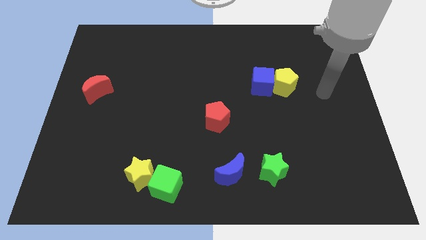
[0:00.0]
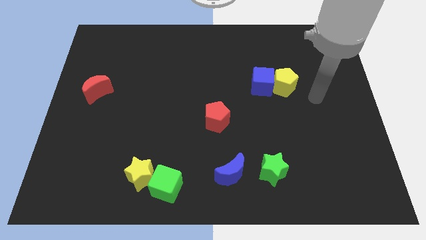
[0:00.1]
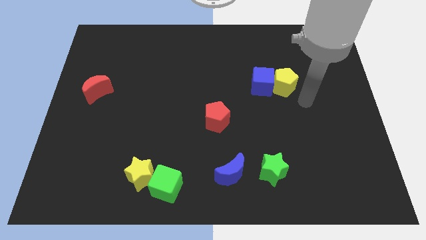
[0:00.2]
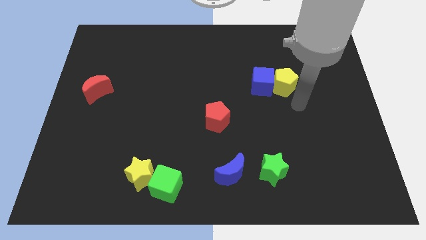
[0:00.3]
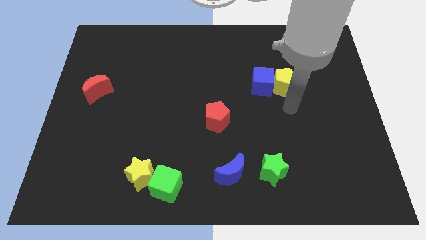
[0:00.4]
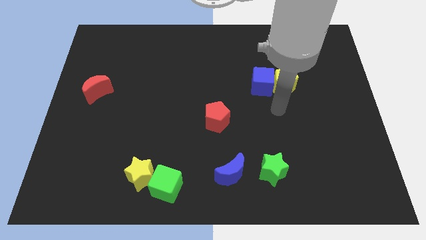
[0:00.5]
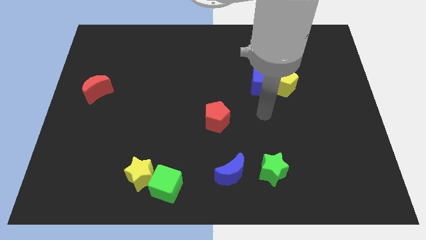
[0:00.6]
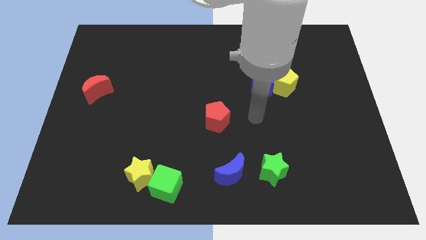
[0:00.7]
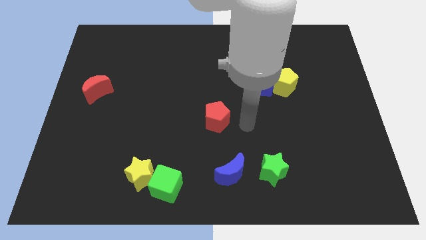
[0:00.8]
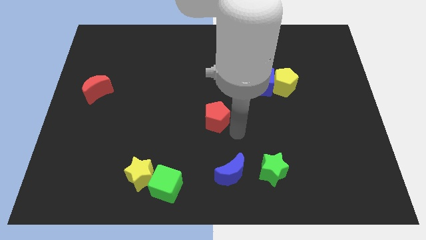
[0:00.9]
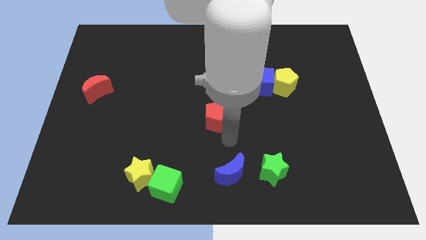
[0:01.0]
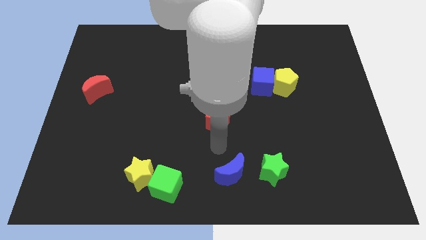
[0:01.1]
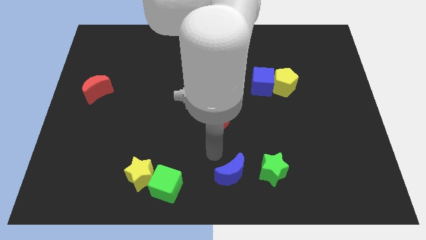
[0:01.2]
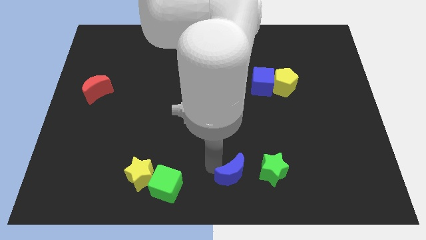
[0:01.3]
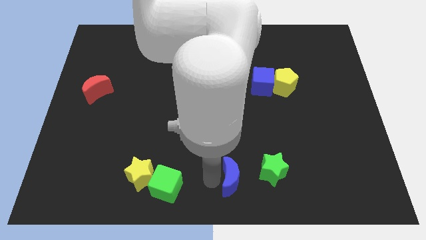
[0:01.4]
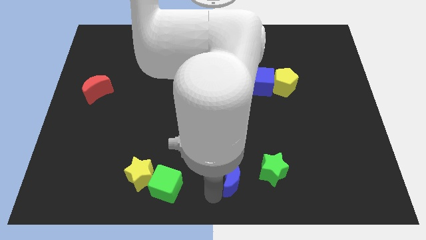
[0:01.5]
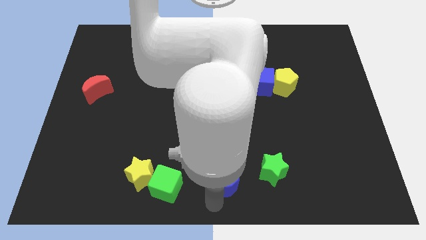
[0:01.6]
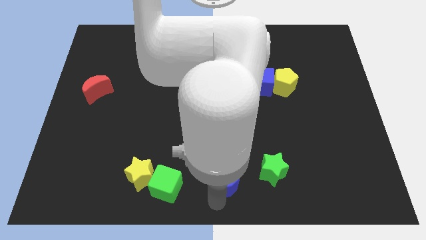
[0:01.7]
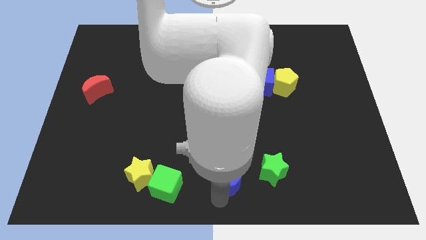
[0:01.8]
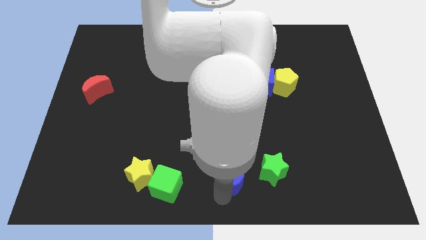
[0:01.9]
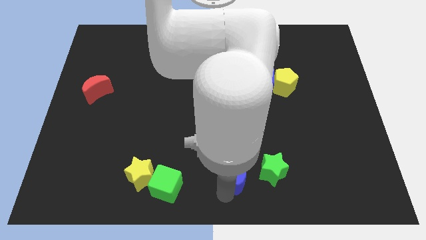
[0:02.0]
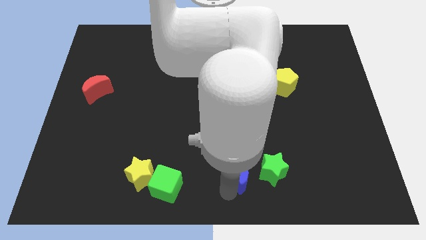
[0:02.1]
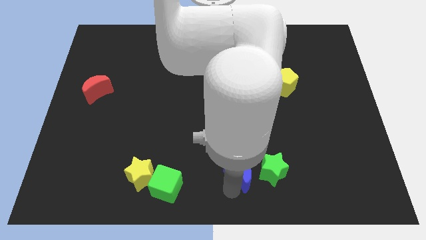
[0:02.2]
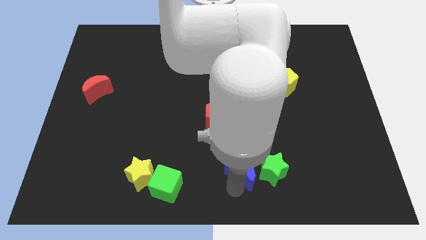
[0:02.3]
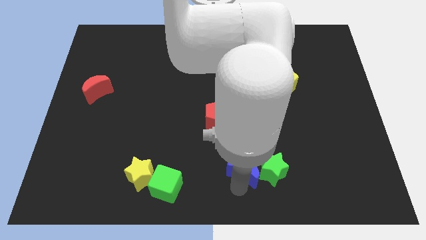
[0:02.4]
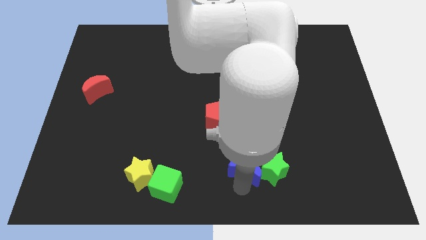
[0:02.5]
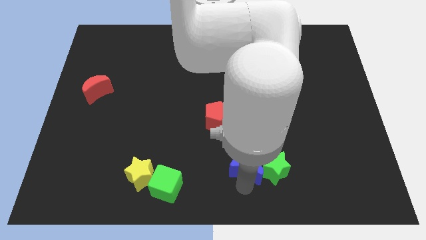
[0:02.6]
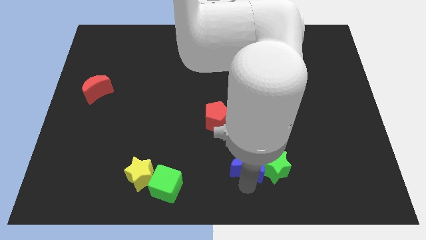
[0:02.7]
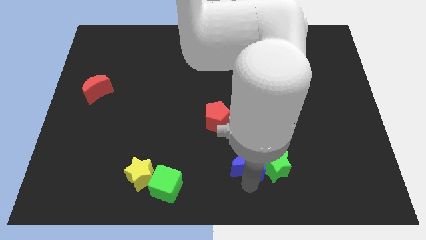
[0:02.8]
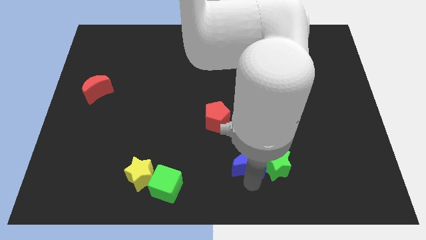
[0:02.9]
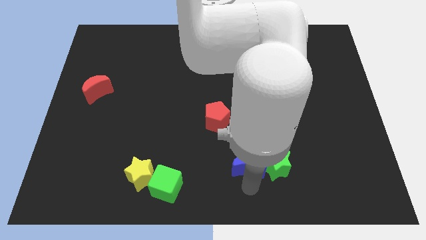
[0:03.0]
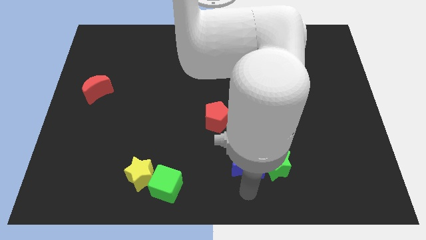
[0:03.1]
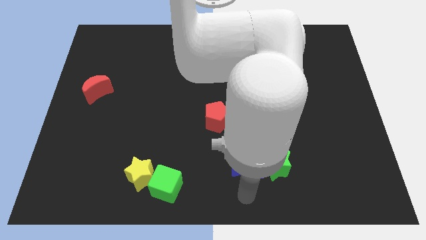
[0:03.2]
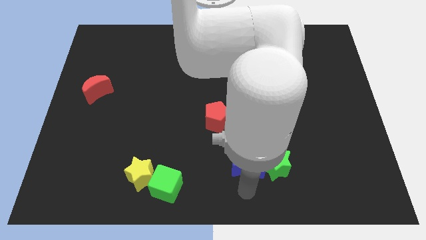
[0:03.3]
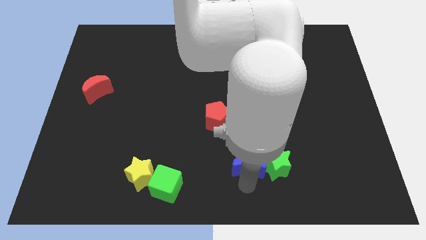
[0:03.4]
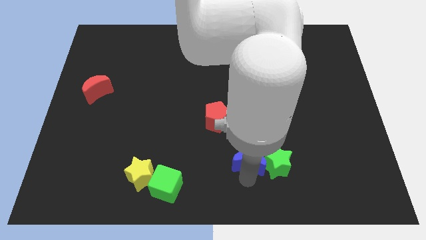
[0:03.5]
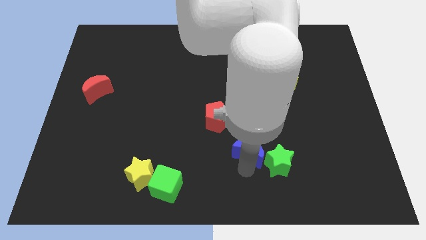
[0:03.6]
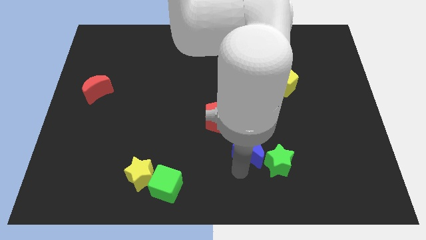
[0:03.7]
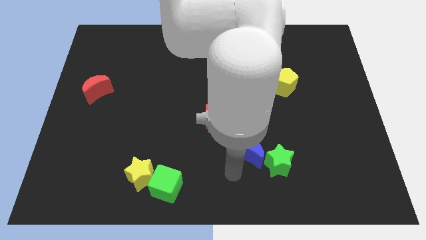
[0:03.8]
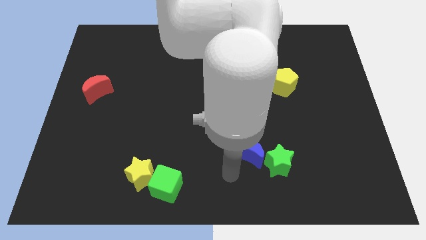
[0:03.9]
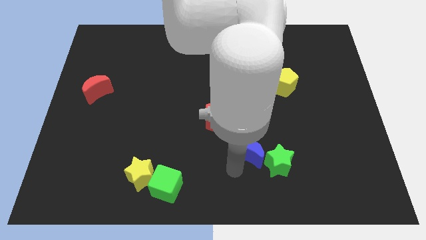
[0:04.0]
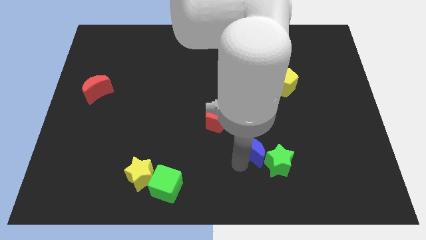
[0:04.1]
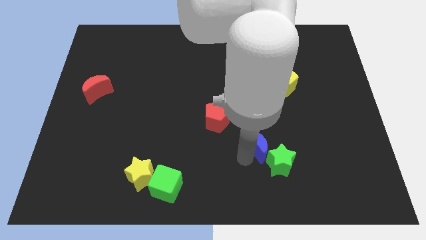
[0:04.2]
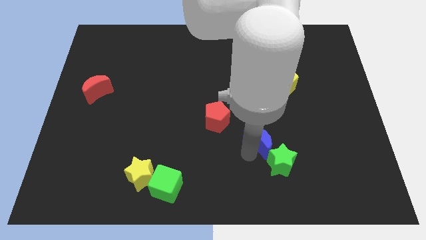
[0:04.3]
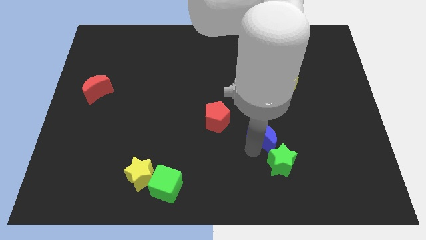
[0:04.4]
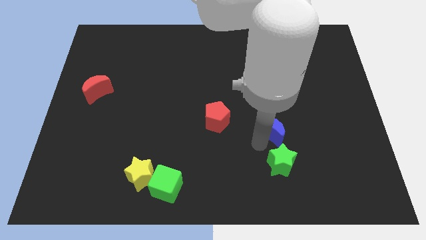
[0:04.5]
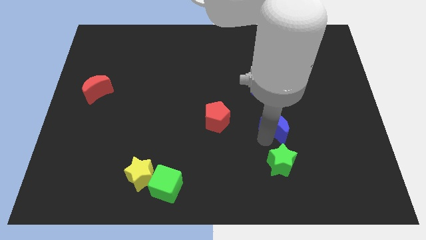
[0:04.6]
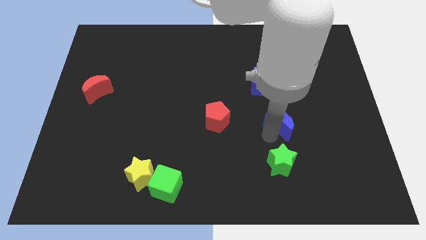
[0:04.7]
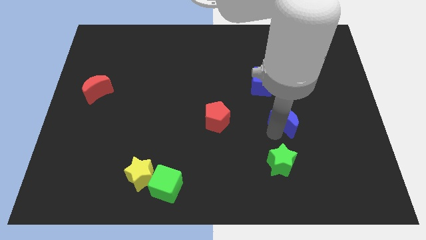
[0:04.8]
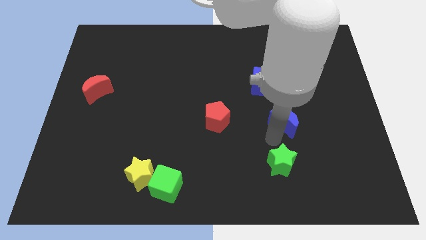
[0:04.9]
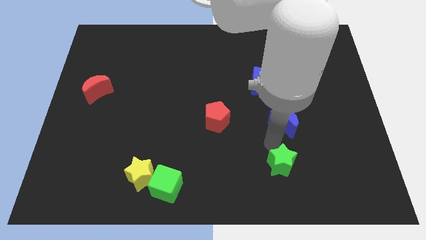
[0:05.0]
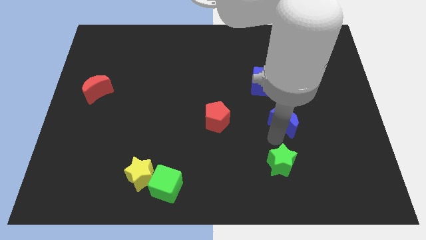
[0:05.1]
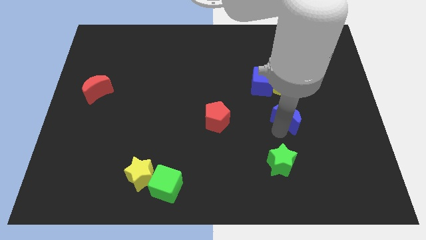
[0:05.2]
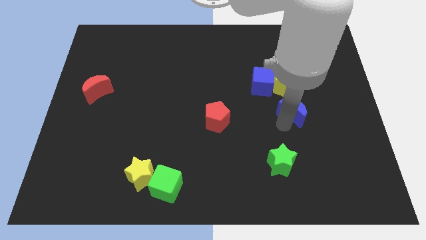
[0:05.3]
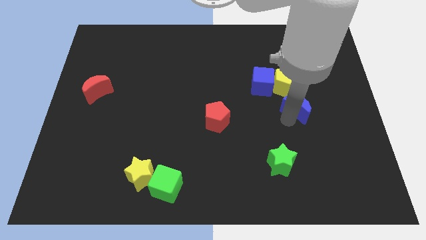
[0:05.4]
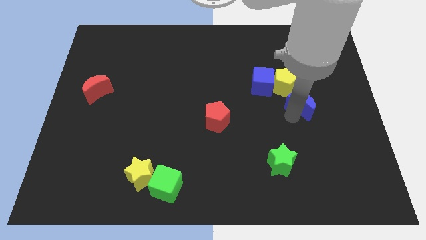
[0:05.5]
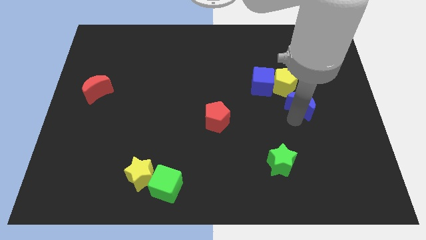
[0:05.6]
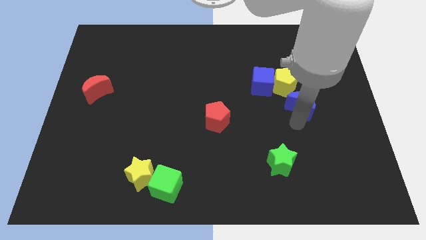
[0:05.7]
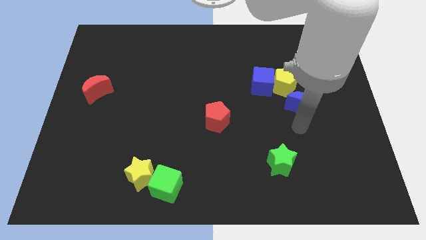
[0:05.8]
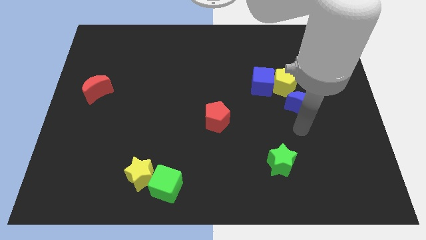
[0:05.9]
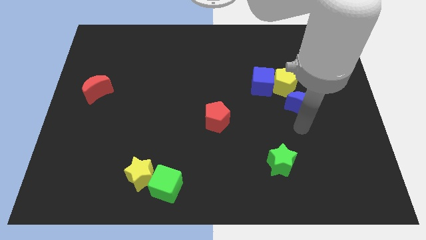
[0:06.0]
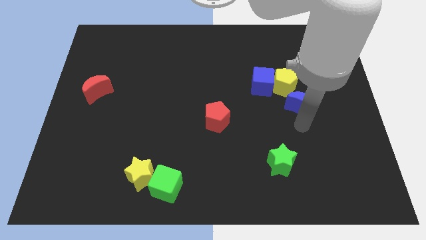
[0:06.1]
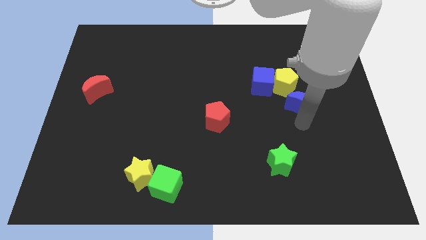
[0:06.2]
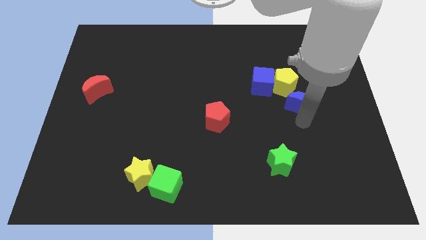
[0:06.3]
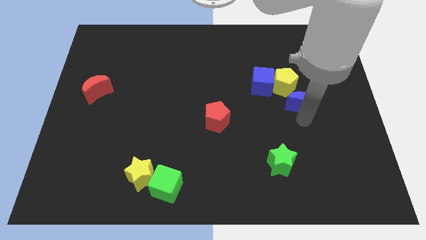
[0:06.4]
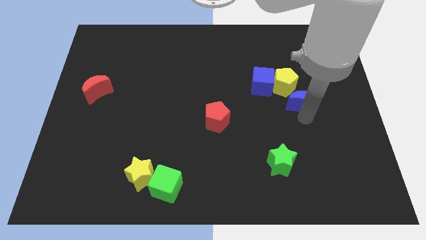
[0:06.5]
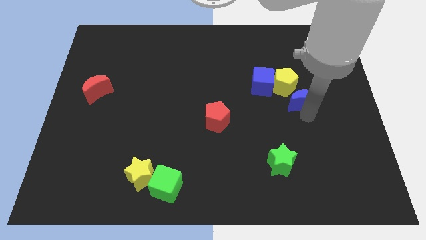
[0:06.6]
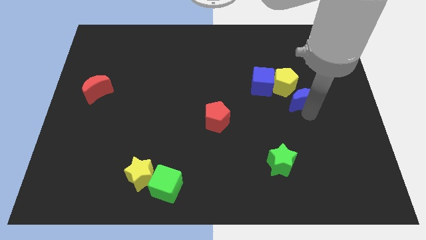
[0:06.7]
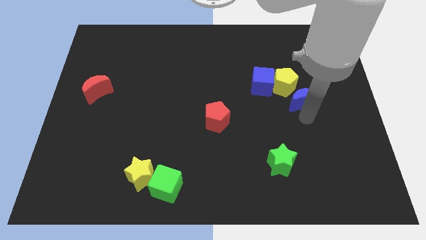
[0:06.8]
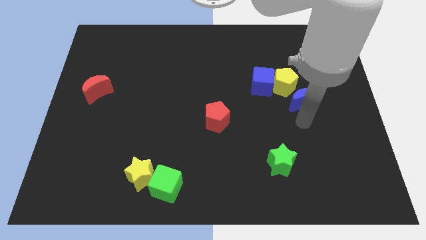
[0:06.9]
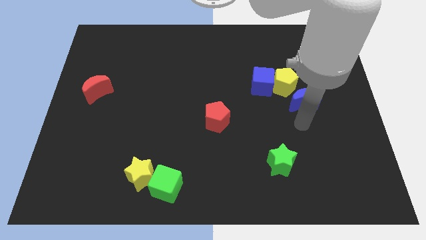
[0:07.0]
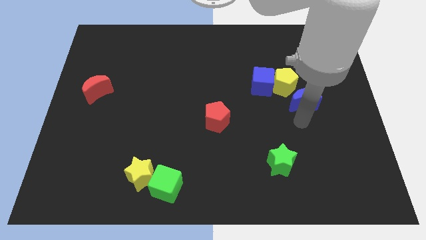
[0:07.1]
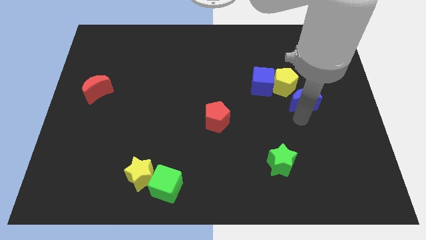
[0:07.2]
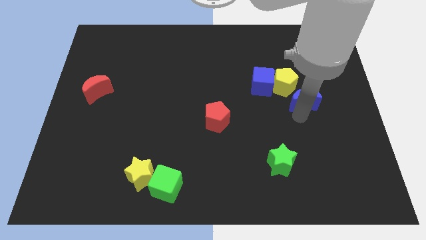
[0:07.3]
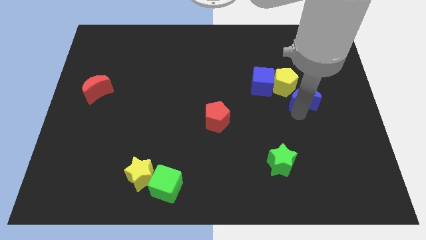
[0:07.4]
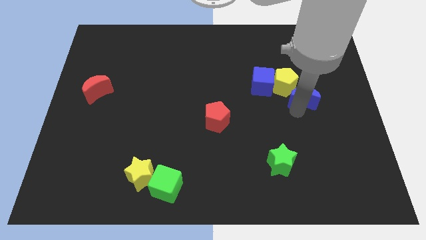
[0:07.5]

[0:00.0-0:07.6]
move the blue moon to the right side of the blue cube
